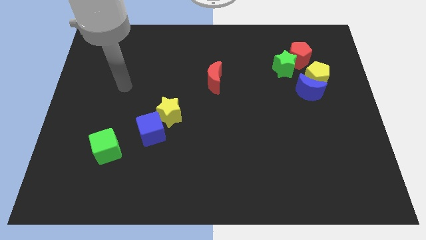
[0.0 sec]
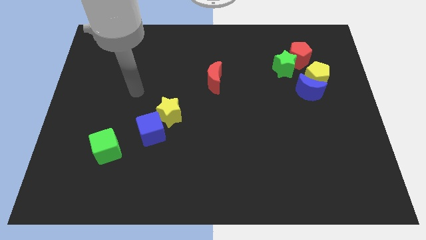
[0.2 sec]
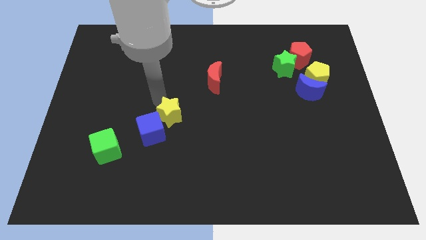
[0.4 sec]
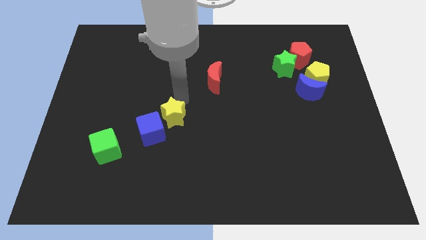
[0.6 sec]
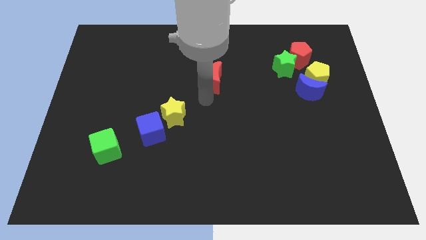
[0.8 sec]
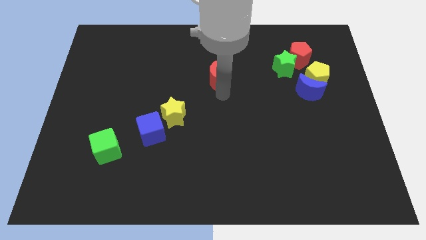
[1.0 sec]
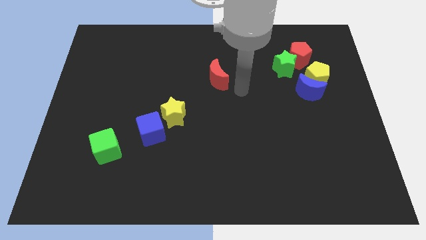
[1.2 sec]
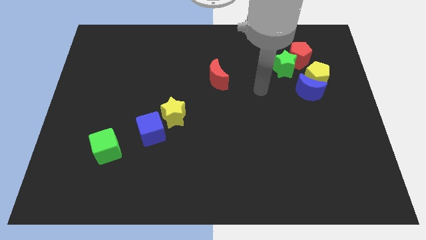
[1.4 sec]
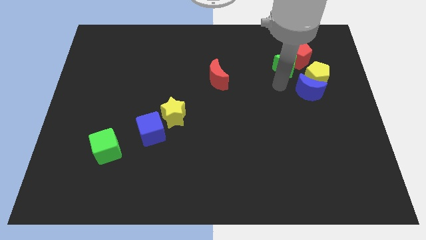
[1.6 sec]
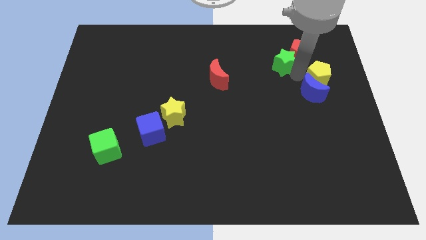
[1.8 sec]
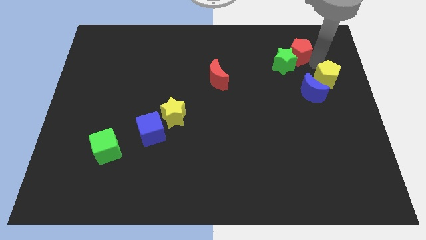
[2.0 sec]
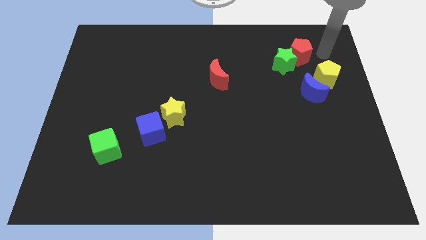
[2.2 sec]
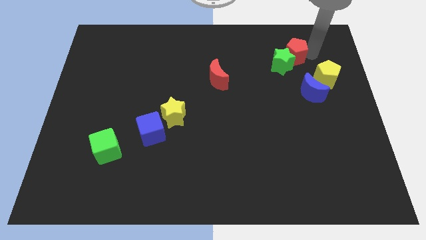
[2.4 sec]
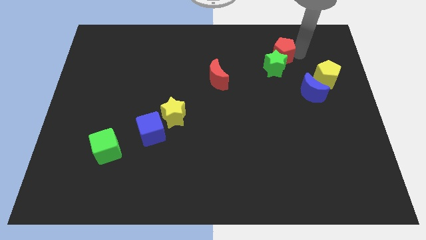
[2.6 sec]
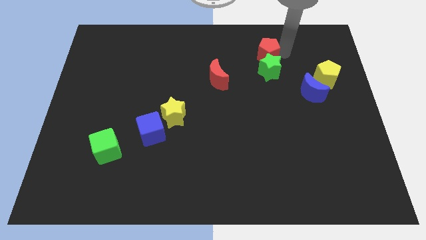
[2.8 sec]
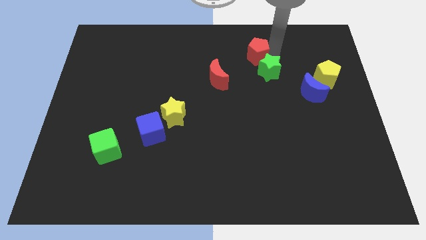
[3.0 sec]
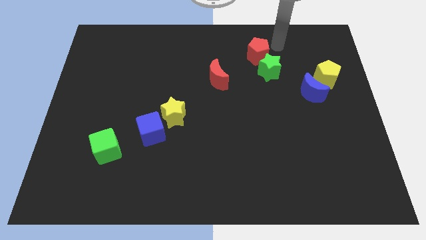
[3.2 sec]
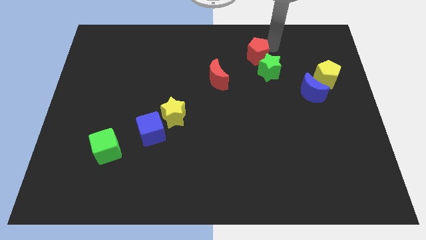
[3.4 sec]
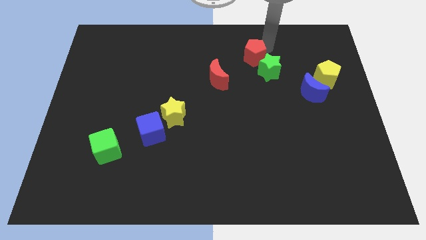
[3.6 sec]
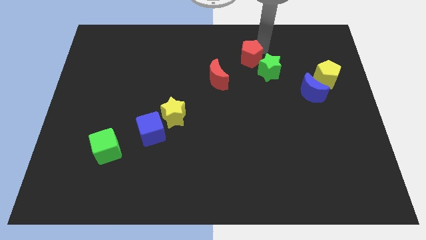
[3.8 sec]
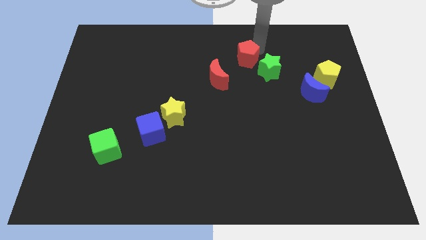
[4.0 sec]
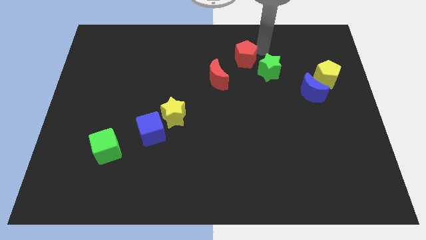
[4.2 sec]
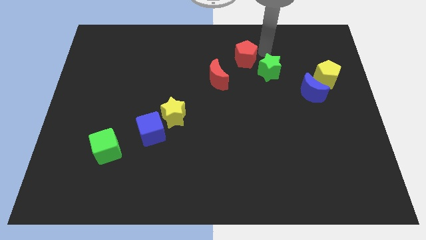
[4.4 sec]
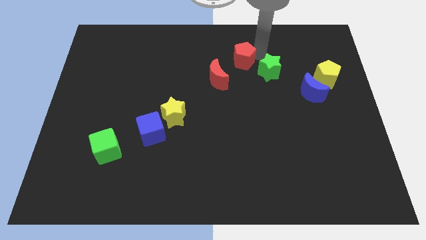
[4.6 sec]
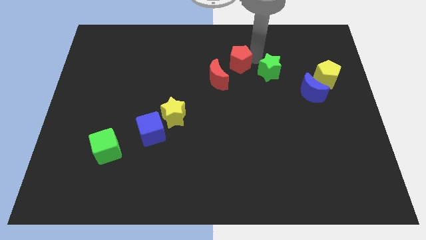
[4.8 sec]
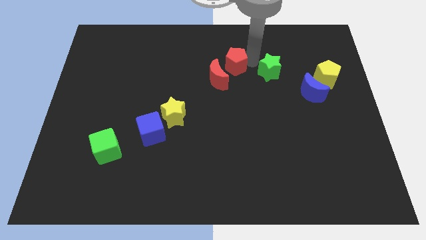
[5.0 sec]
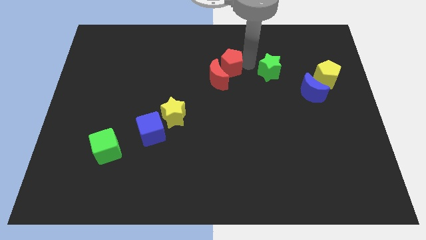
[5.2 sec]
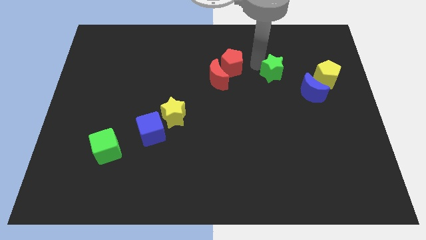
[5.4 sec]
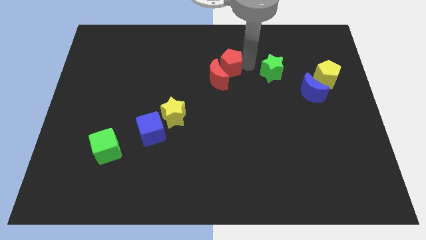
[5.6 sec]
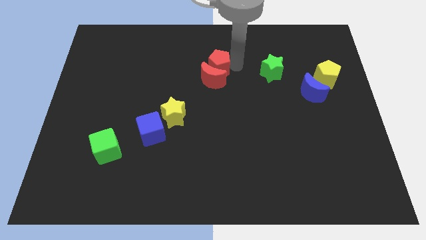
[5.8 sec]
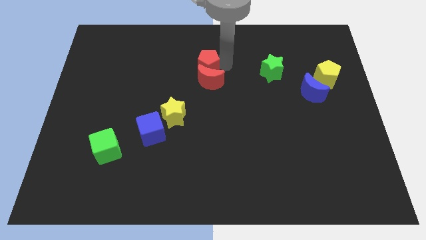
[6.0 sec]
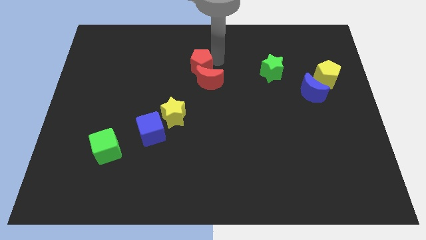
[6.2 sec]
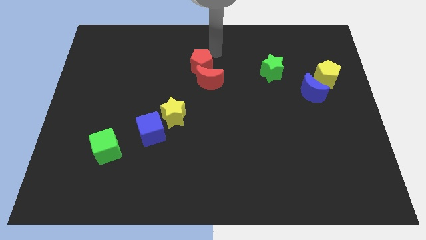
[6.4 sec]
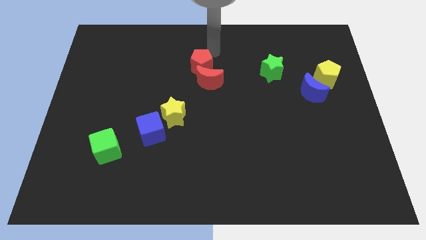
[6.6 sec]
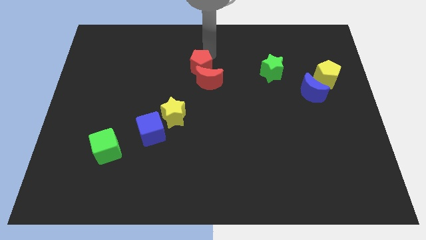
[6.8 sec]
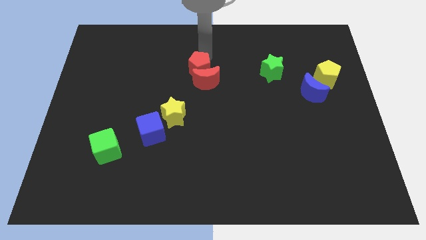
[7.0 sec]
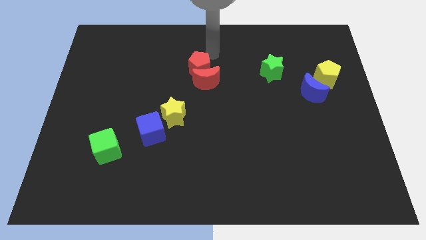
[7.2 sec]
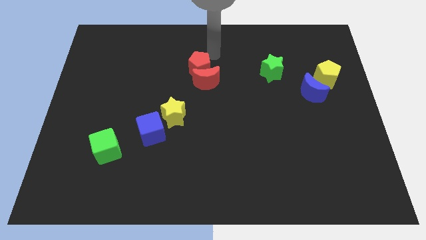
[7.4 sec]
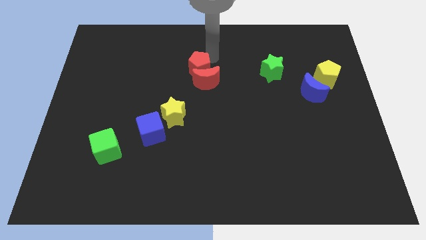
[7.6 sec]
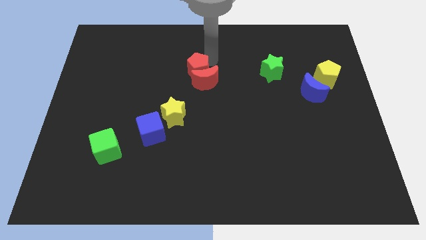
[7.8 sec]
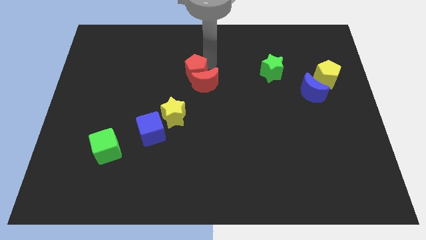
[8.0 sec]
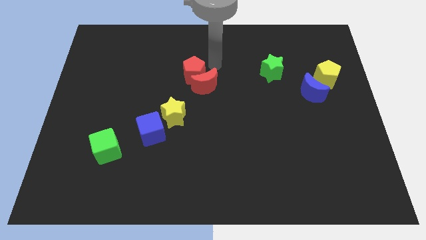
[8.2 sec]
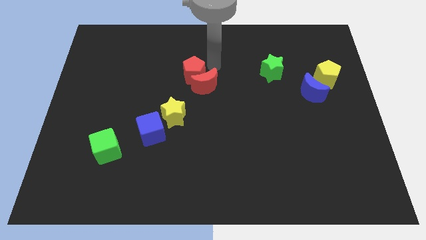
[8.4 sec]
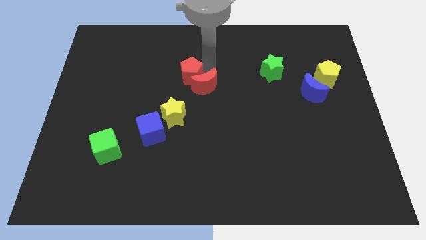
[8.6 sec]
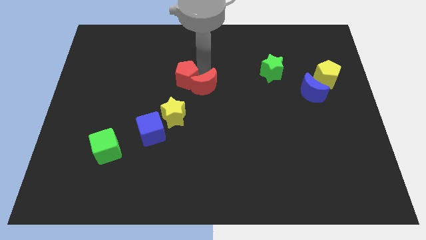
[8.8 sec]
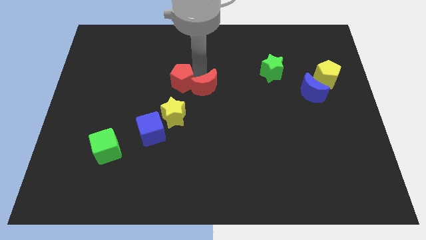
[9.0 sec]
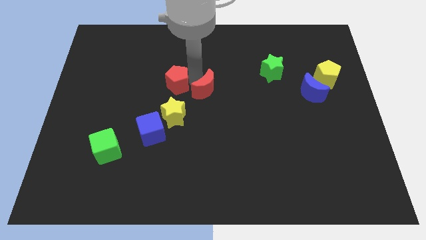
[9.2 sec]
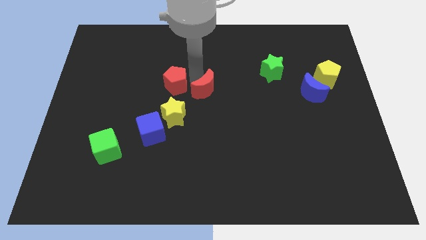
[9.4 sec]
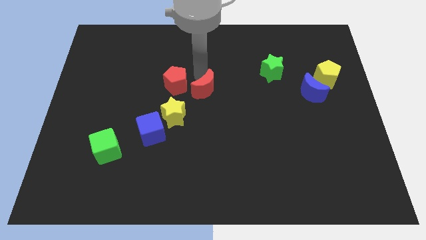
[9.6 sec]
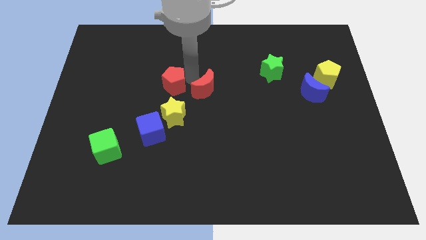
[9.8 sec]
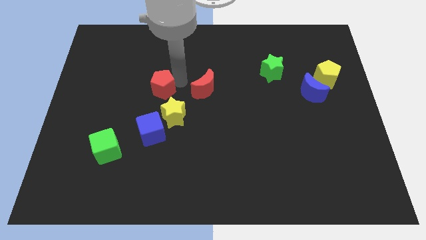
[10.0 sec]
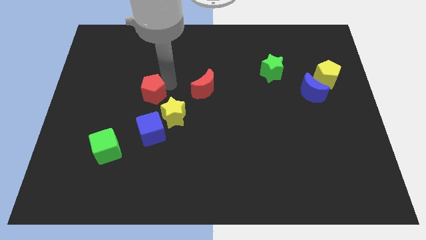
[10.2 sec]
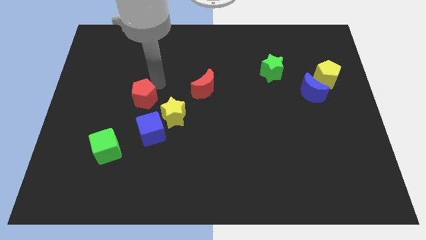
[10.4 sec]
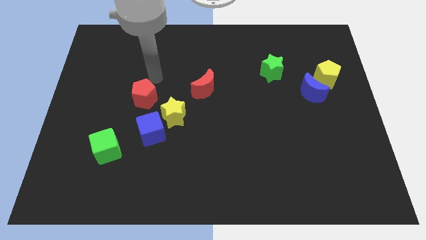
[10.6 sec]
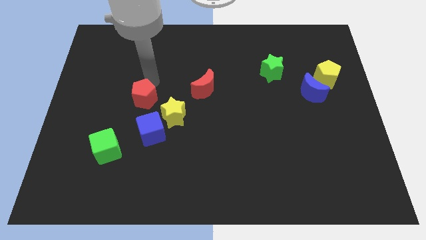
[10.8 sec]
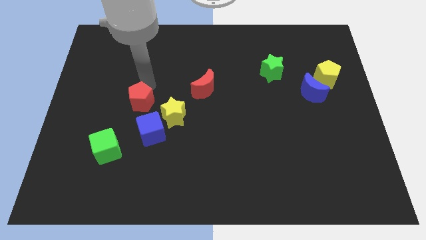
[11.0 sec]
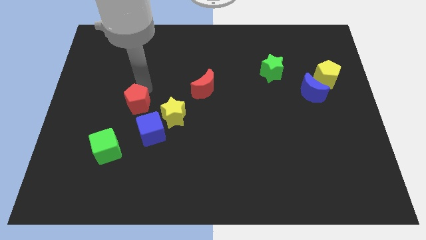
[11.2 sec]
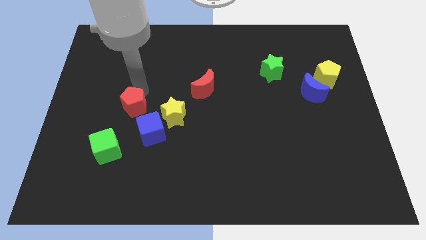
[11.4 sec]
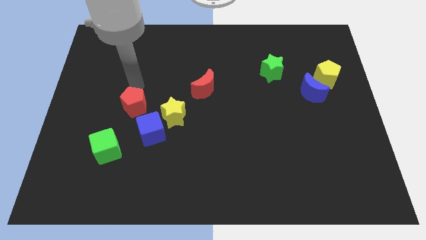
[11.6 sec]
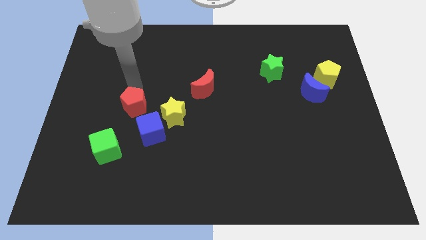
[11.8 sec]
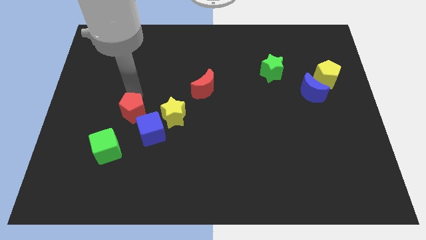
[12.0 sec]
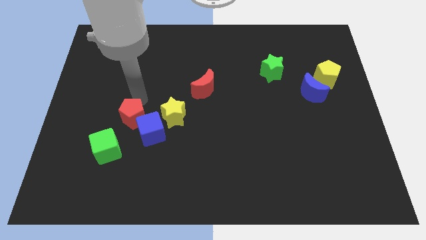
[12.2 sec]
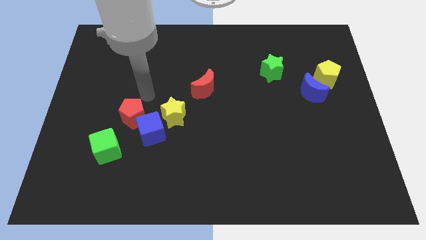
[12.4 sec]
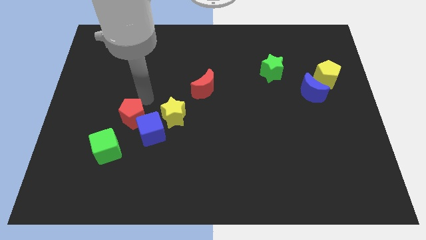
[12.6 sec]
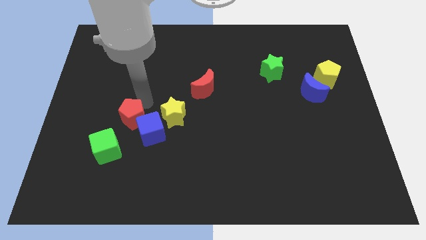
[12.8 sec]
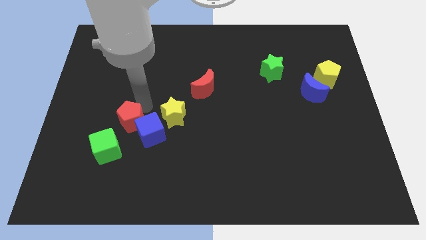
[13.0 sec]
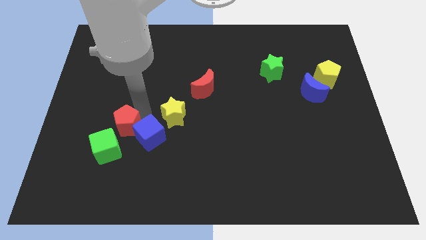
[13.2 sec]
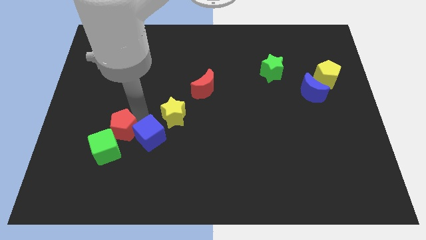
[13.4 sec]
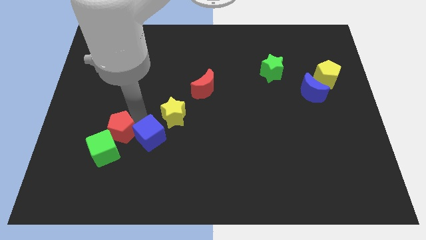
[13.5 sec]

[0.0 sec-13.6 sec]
push the red pentagon next to the green cube

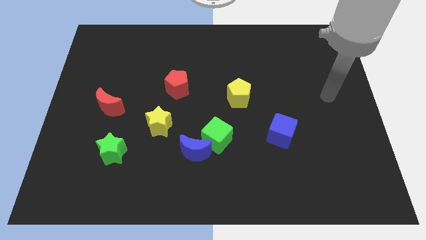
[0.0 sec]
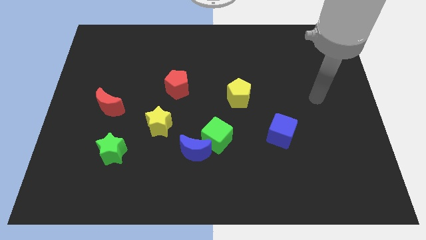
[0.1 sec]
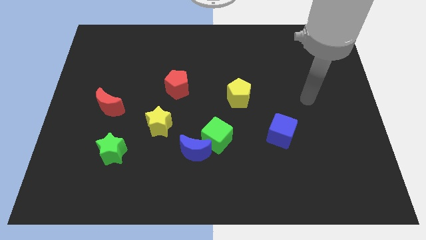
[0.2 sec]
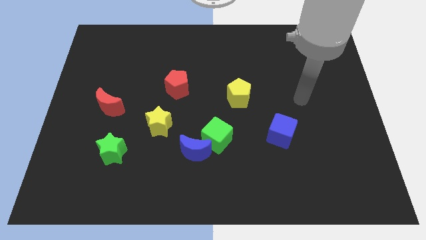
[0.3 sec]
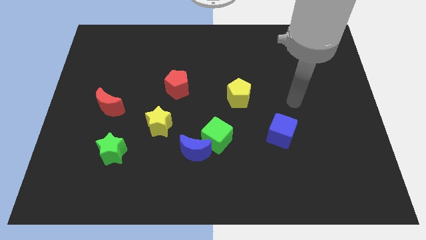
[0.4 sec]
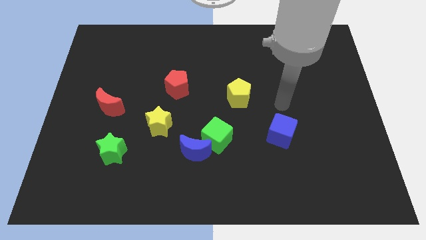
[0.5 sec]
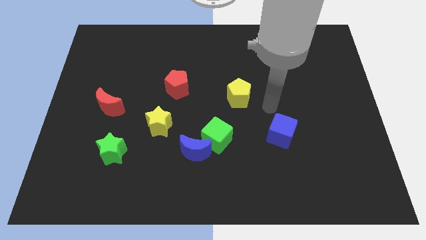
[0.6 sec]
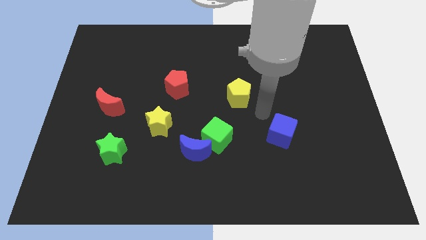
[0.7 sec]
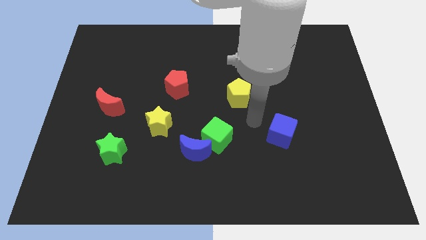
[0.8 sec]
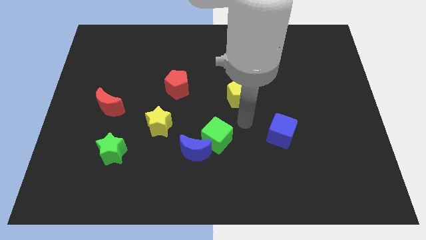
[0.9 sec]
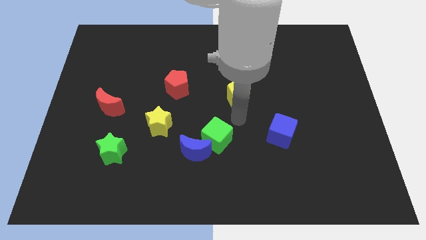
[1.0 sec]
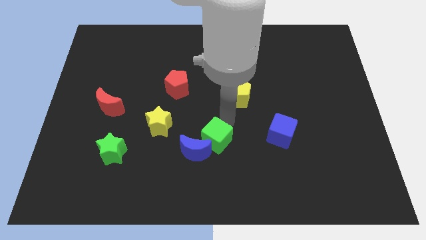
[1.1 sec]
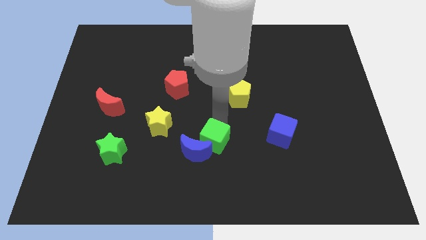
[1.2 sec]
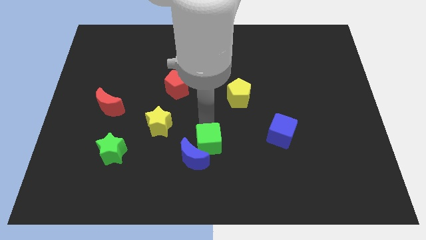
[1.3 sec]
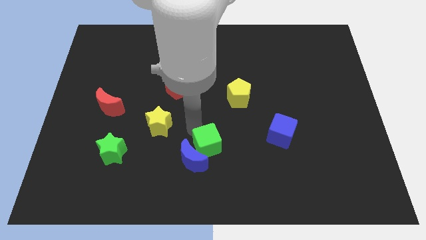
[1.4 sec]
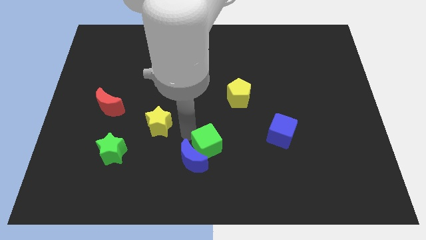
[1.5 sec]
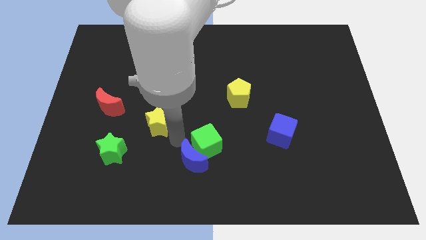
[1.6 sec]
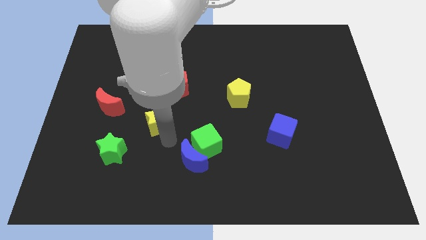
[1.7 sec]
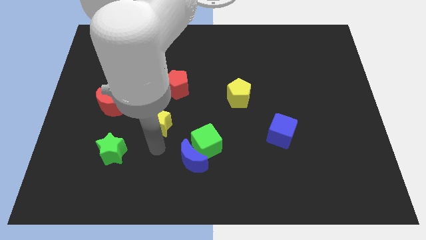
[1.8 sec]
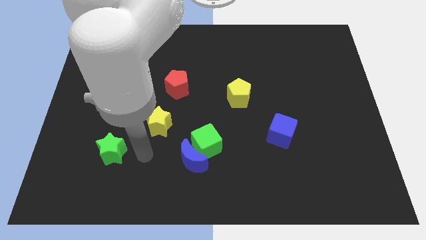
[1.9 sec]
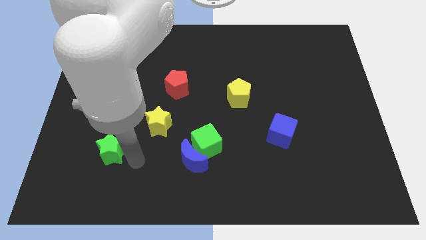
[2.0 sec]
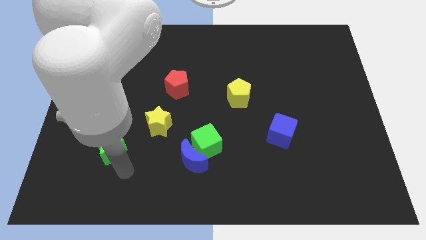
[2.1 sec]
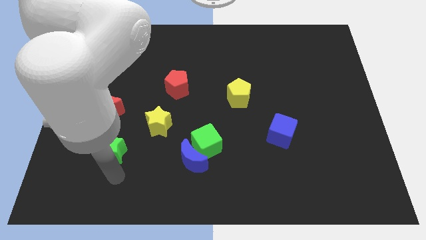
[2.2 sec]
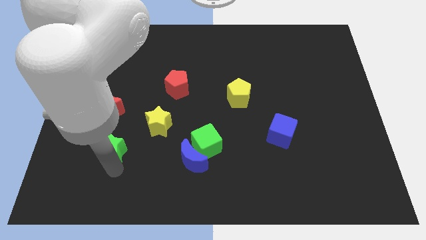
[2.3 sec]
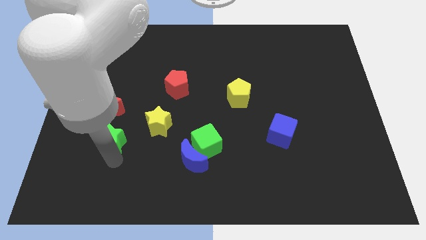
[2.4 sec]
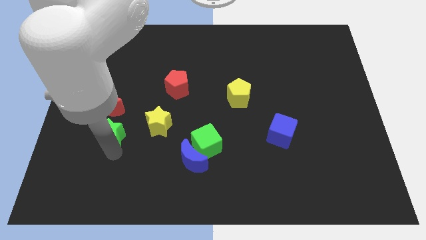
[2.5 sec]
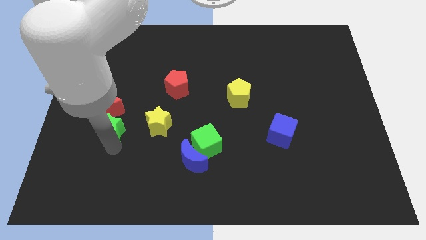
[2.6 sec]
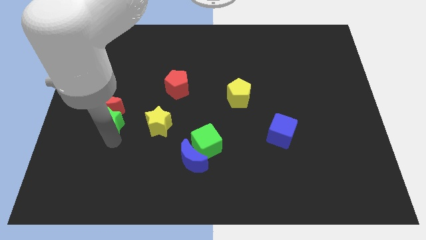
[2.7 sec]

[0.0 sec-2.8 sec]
move the green star towards the red moon
